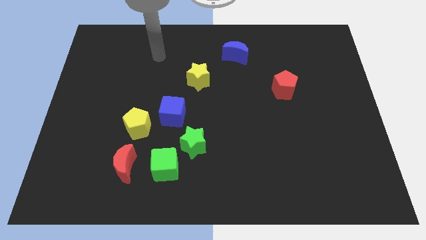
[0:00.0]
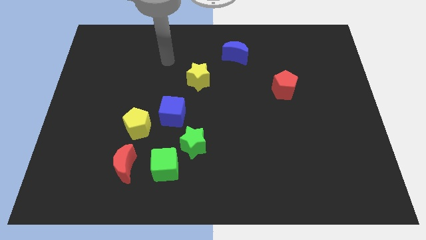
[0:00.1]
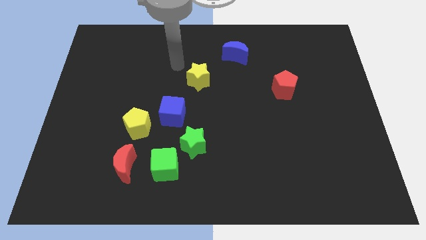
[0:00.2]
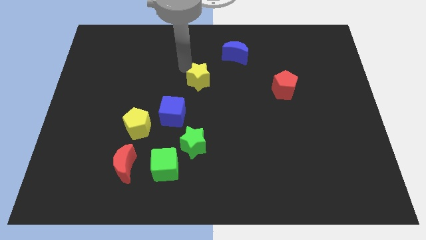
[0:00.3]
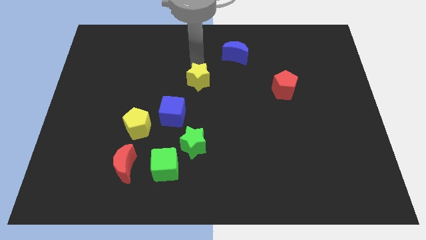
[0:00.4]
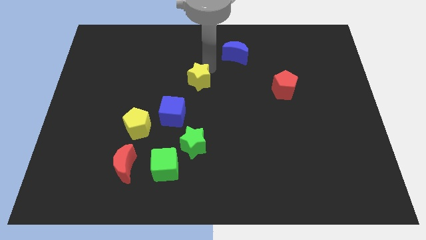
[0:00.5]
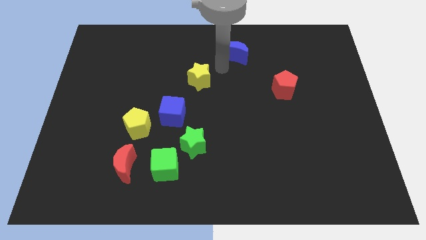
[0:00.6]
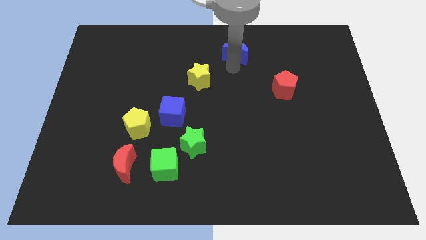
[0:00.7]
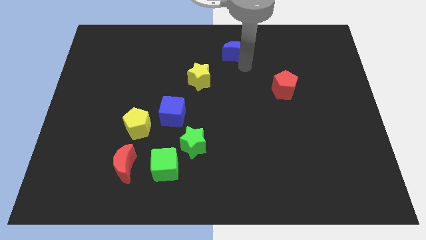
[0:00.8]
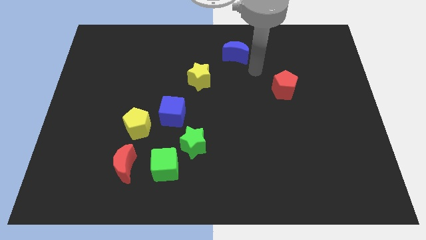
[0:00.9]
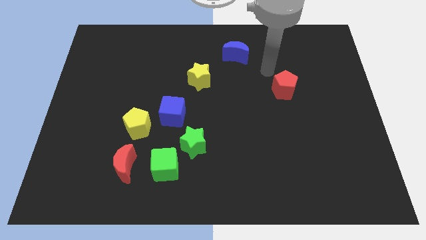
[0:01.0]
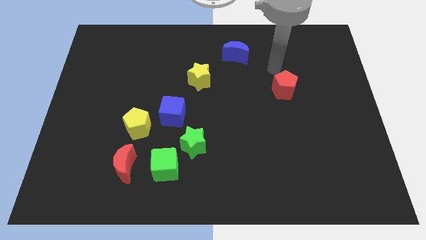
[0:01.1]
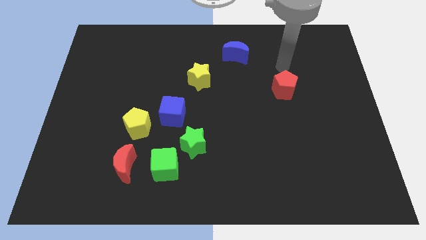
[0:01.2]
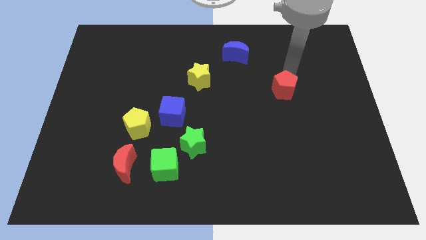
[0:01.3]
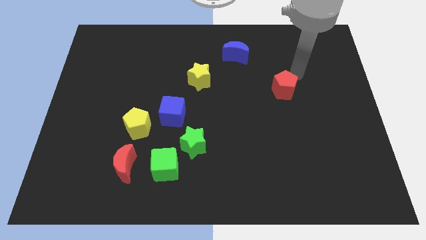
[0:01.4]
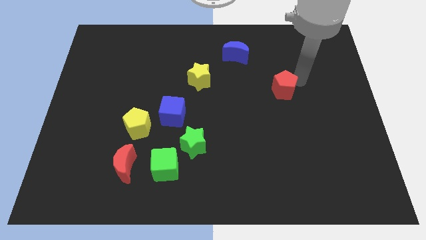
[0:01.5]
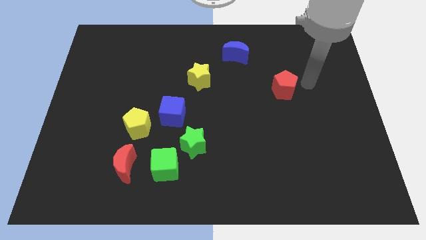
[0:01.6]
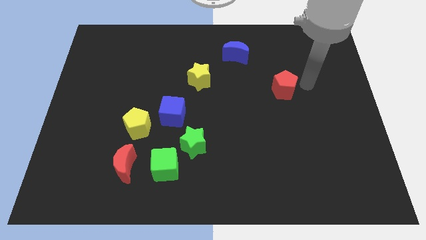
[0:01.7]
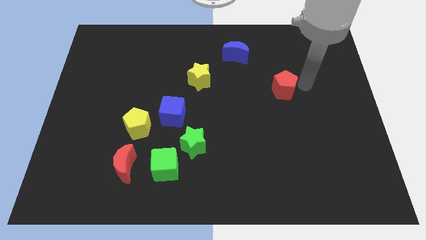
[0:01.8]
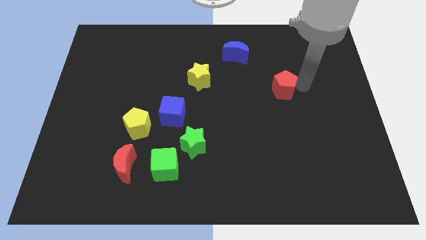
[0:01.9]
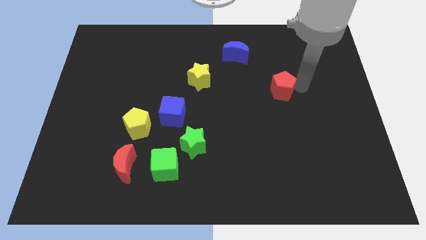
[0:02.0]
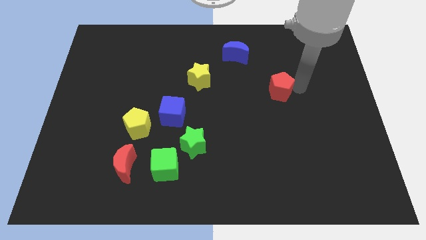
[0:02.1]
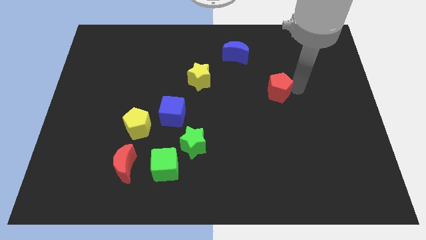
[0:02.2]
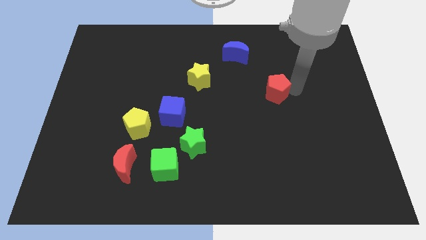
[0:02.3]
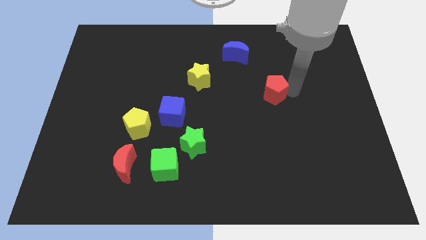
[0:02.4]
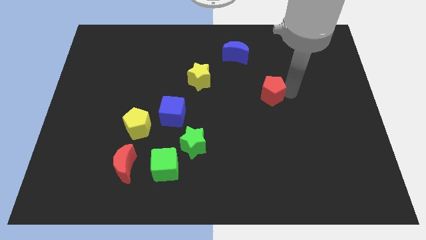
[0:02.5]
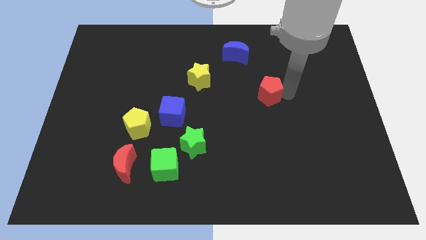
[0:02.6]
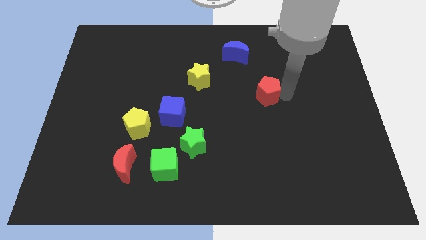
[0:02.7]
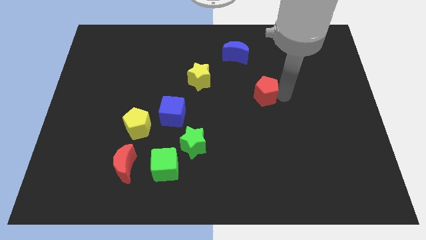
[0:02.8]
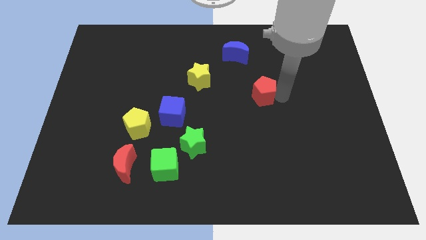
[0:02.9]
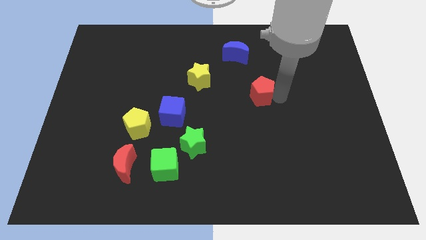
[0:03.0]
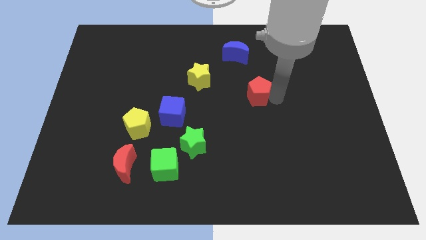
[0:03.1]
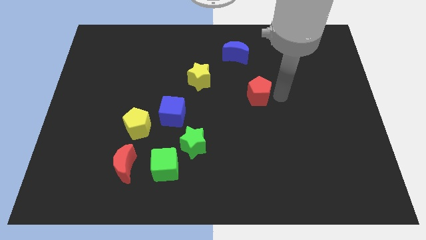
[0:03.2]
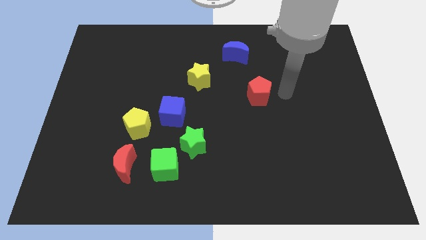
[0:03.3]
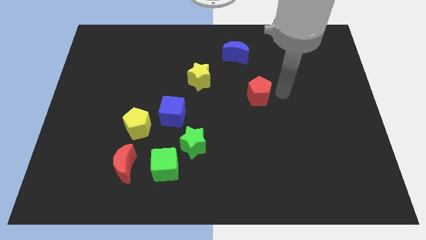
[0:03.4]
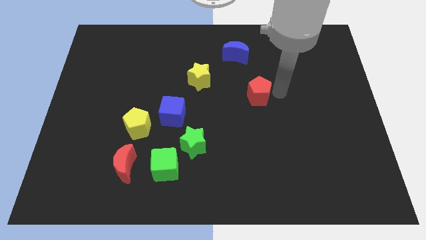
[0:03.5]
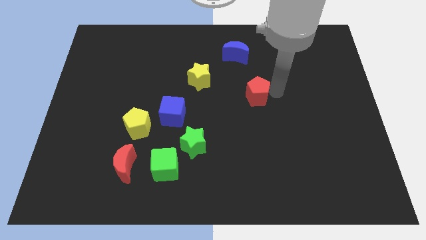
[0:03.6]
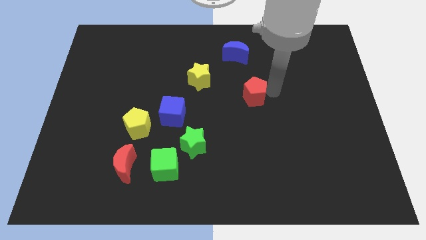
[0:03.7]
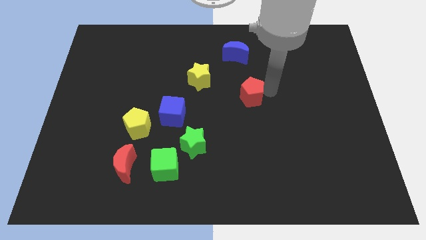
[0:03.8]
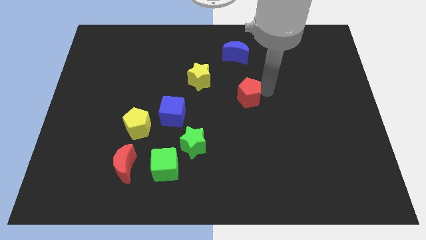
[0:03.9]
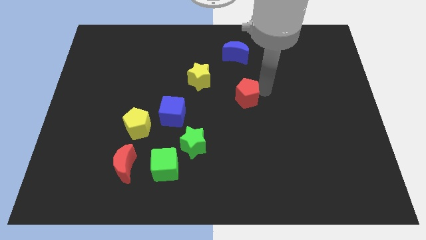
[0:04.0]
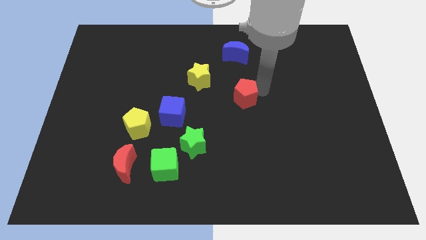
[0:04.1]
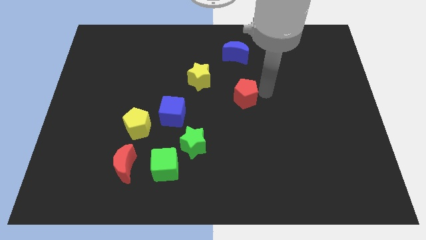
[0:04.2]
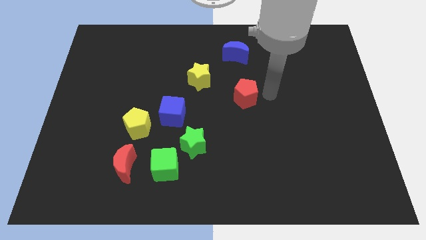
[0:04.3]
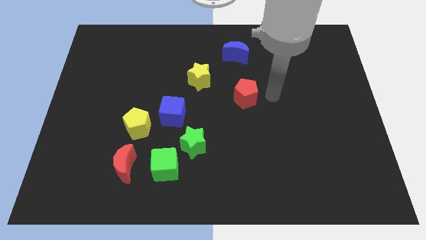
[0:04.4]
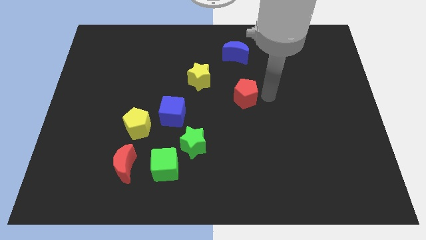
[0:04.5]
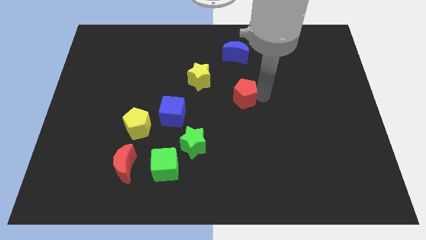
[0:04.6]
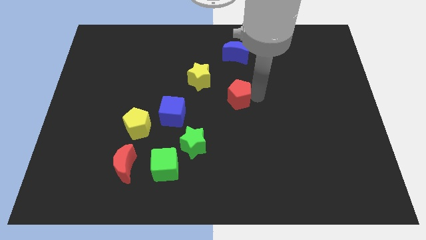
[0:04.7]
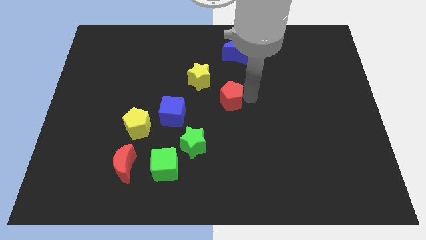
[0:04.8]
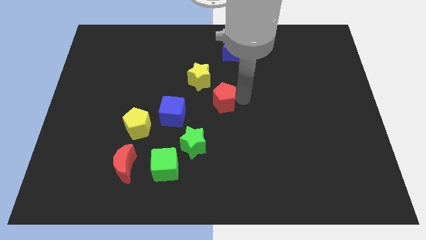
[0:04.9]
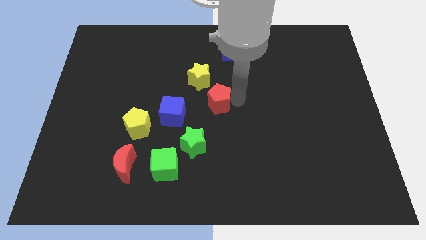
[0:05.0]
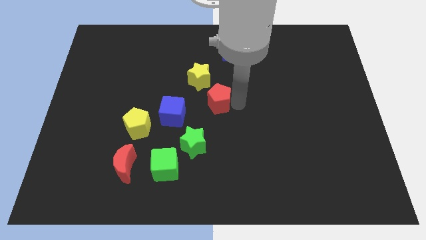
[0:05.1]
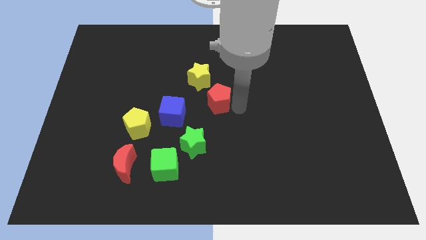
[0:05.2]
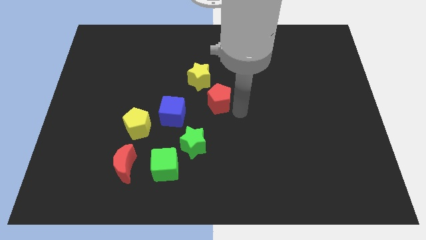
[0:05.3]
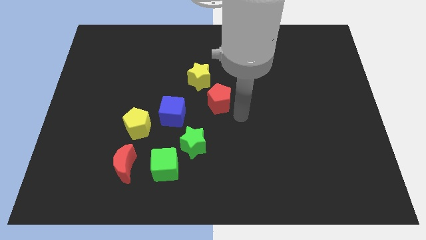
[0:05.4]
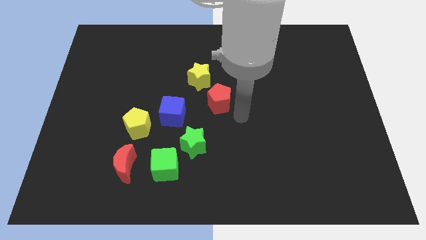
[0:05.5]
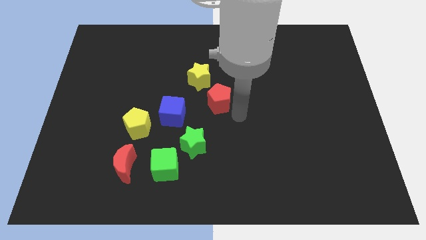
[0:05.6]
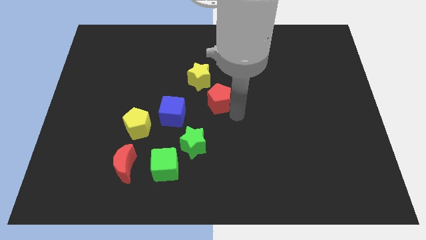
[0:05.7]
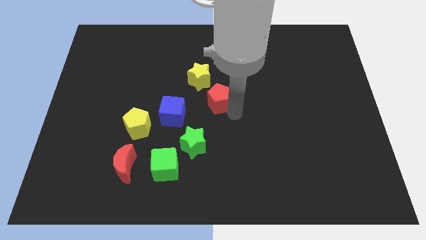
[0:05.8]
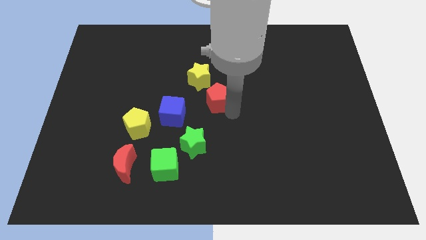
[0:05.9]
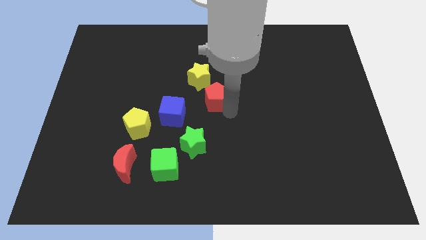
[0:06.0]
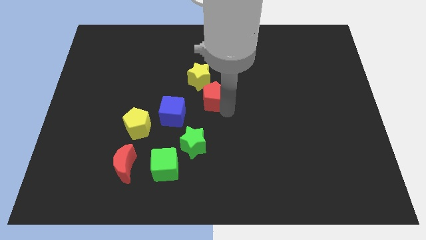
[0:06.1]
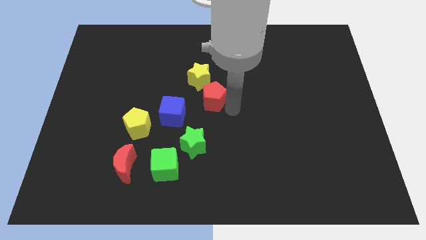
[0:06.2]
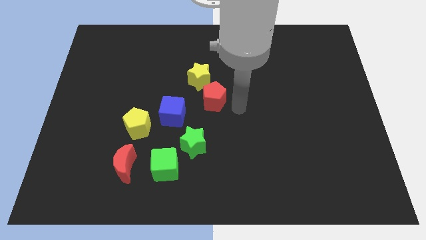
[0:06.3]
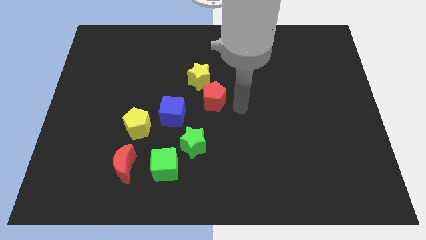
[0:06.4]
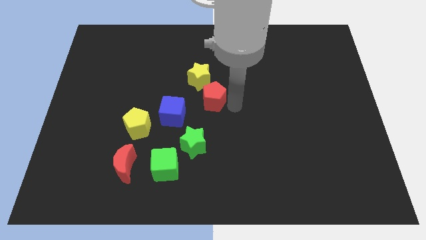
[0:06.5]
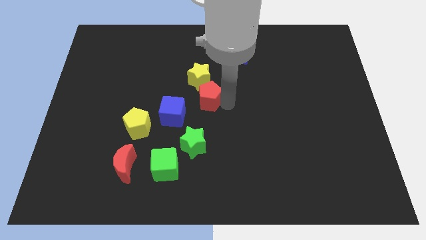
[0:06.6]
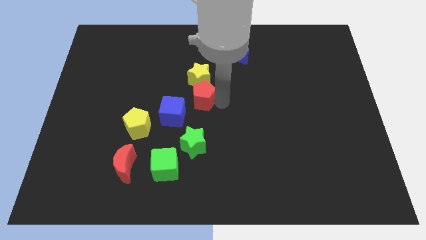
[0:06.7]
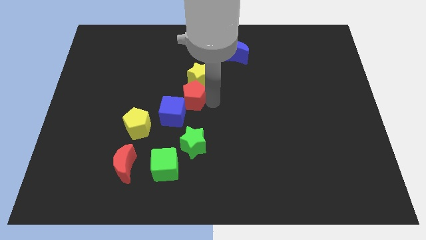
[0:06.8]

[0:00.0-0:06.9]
put the red pentagon to the top of the blue cube

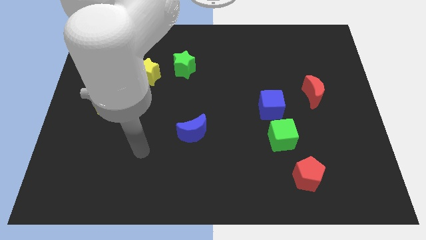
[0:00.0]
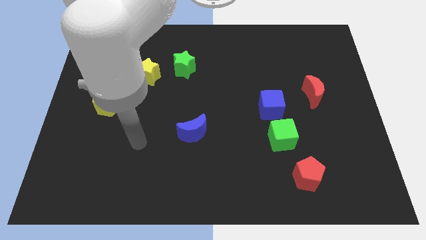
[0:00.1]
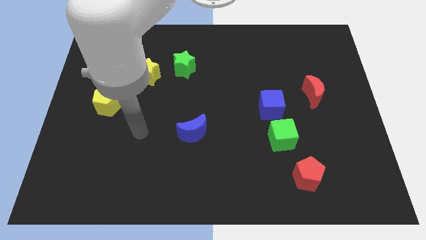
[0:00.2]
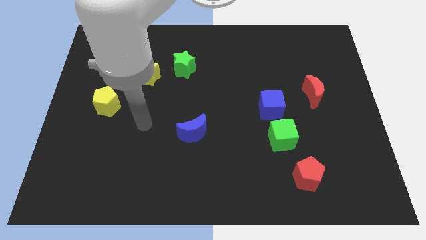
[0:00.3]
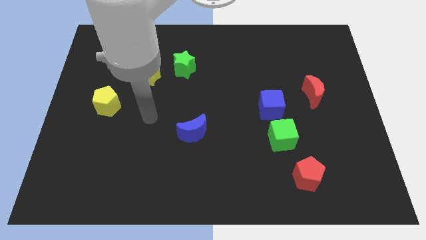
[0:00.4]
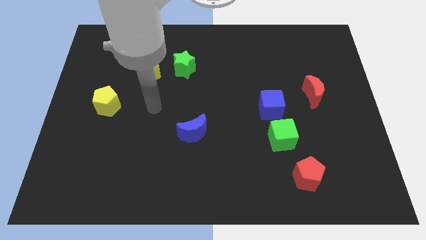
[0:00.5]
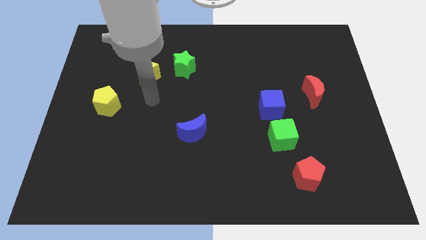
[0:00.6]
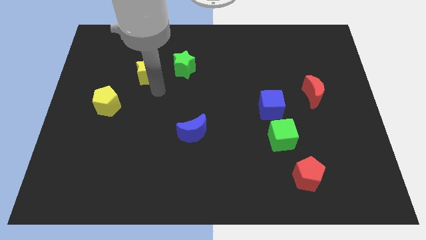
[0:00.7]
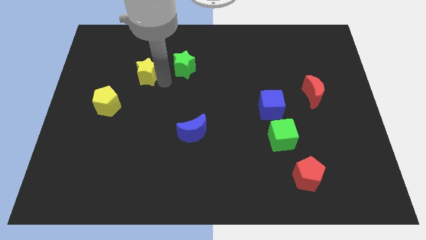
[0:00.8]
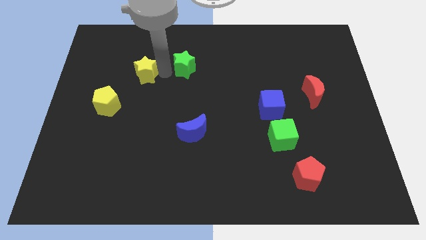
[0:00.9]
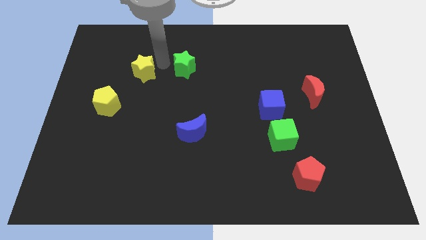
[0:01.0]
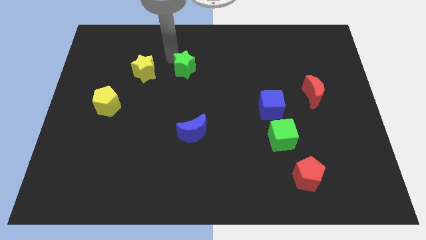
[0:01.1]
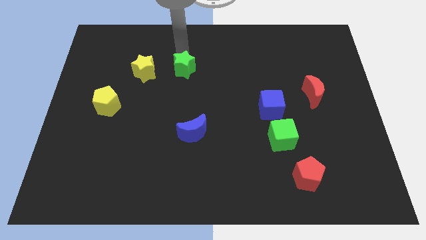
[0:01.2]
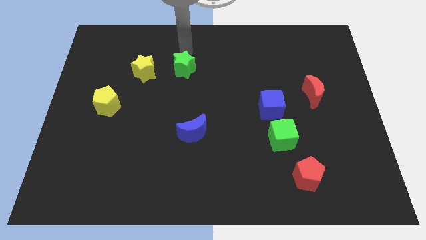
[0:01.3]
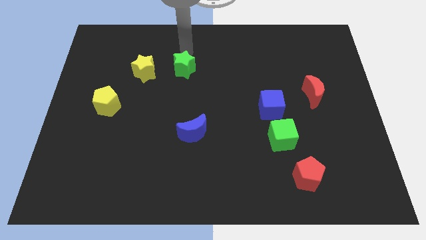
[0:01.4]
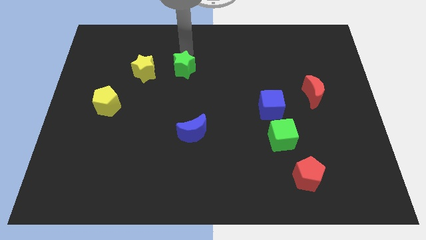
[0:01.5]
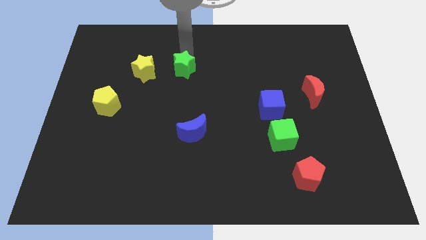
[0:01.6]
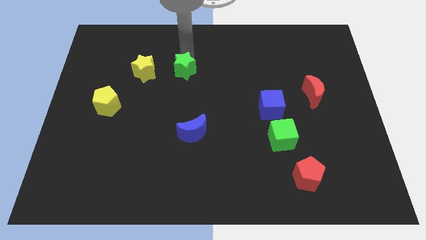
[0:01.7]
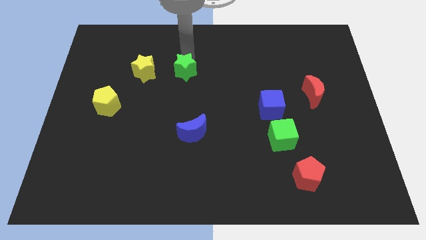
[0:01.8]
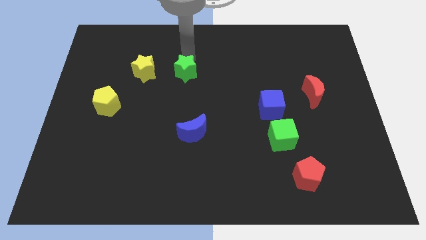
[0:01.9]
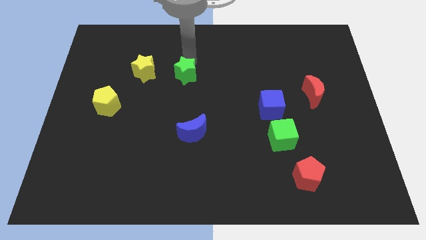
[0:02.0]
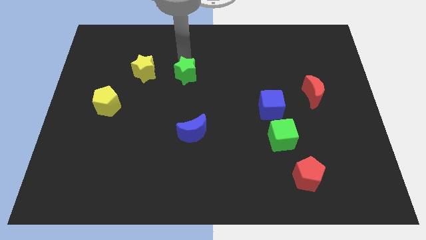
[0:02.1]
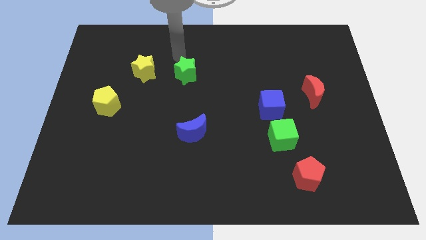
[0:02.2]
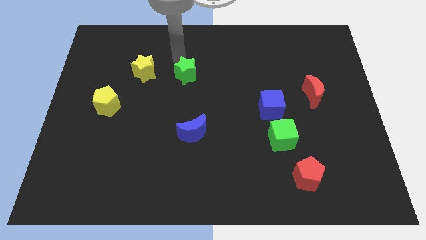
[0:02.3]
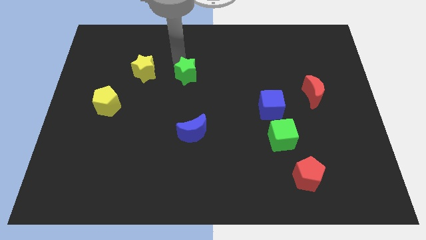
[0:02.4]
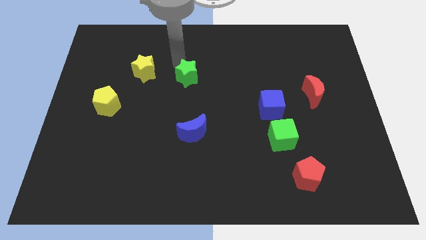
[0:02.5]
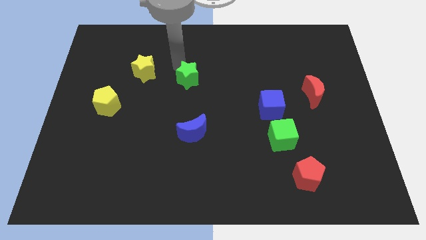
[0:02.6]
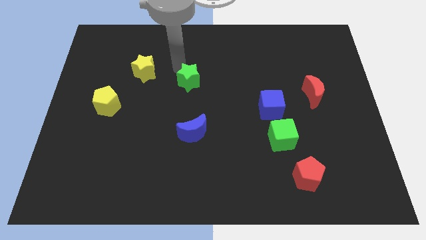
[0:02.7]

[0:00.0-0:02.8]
slide the green star above the blue moon
